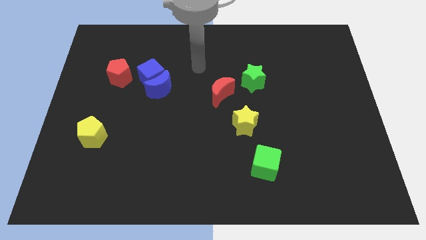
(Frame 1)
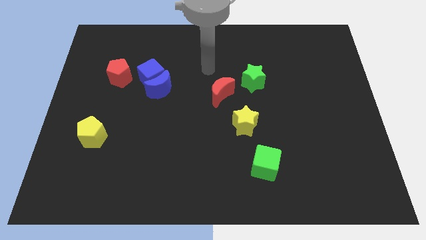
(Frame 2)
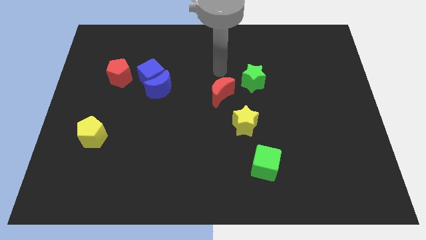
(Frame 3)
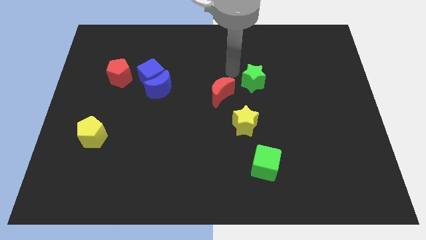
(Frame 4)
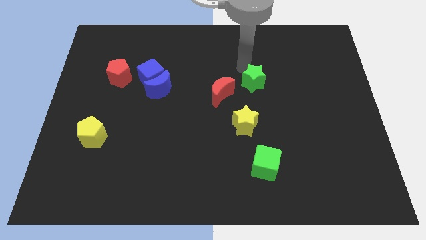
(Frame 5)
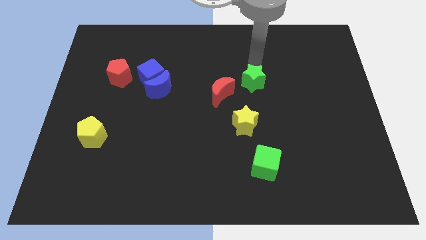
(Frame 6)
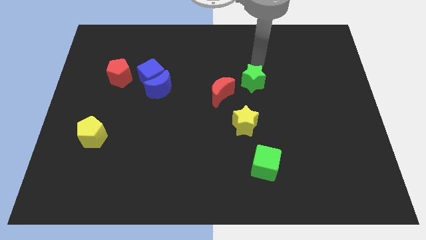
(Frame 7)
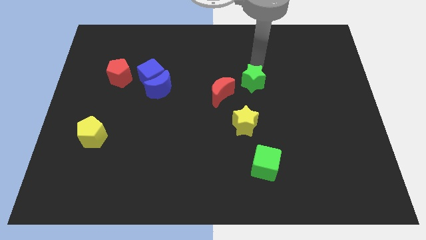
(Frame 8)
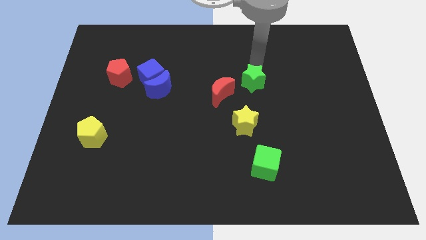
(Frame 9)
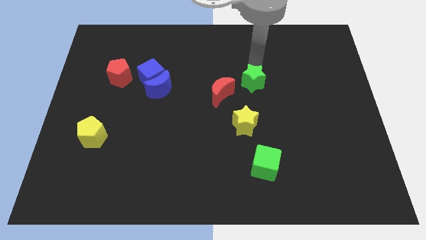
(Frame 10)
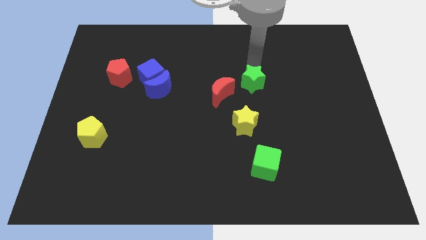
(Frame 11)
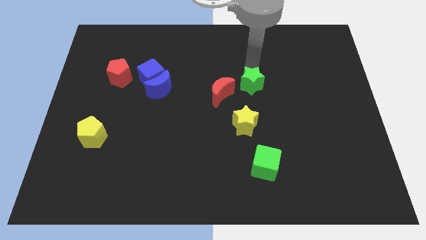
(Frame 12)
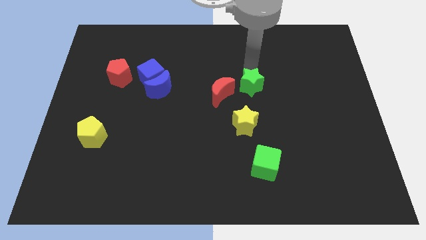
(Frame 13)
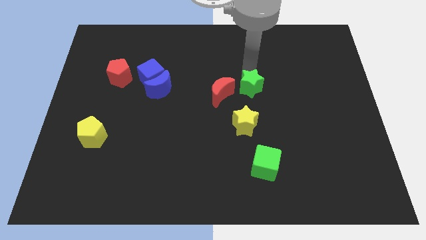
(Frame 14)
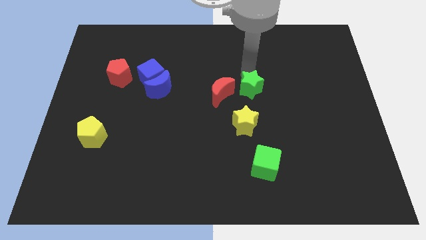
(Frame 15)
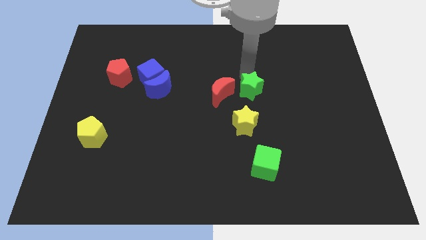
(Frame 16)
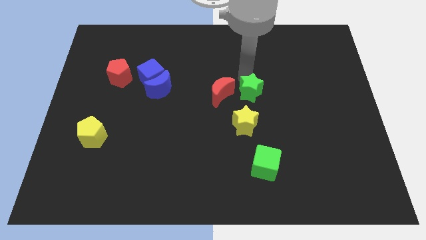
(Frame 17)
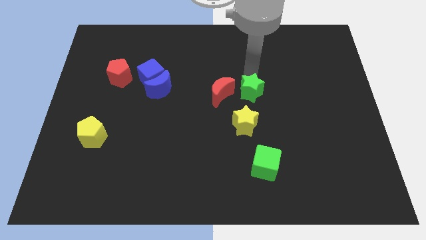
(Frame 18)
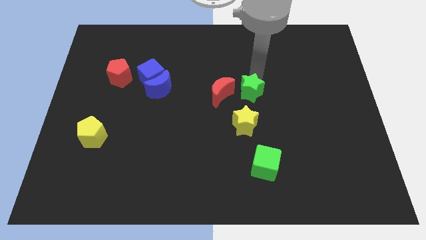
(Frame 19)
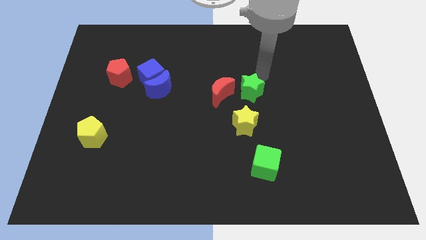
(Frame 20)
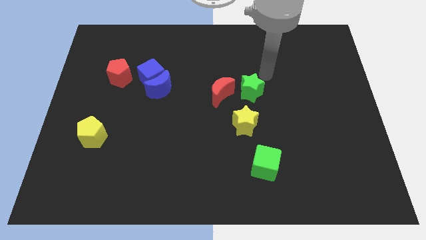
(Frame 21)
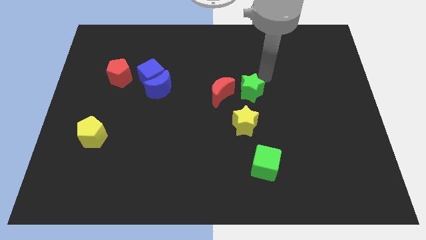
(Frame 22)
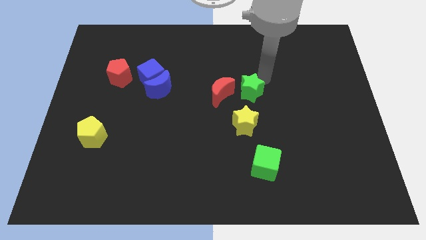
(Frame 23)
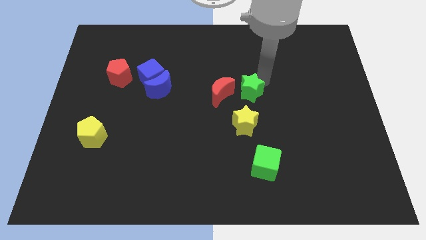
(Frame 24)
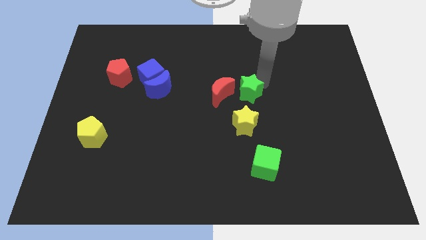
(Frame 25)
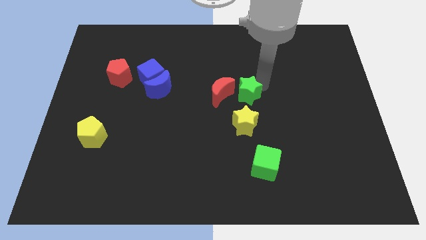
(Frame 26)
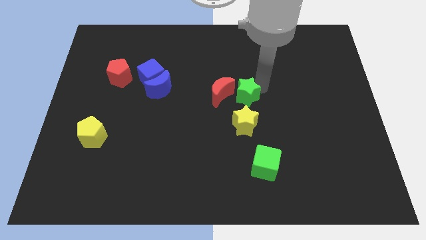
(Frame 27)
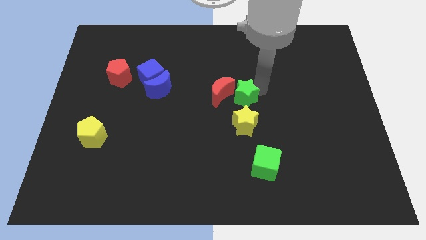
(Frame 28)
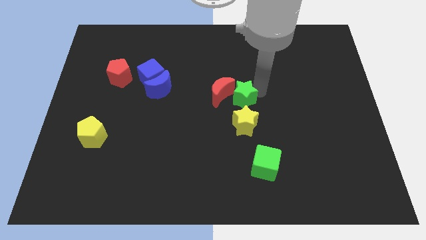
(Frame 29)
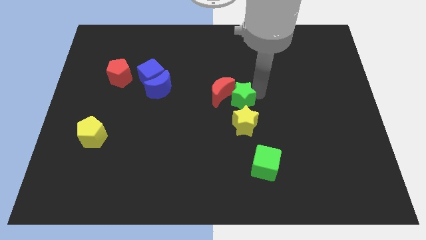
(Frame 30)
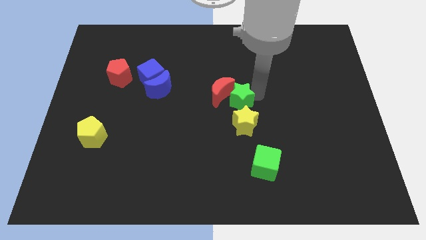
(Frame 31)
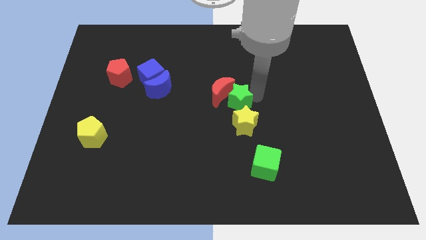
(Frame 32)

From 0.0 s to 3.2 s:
slightly push the green star down and then left

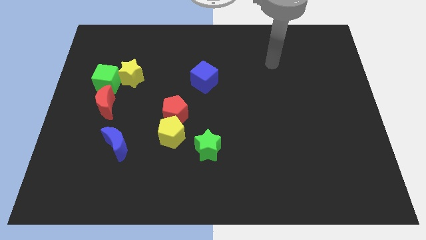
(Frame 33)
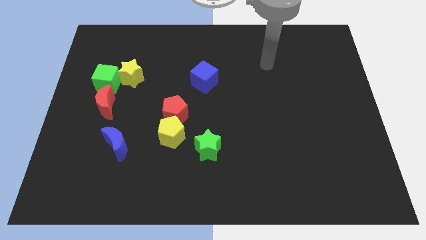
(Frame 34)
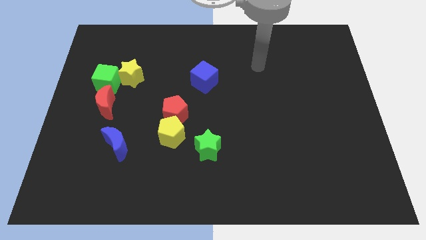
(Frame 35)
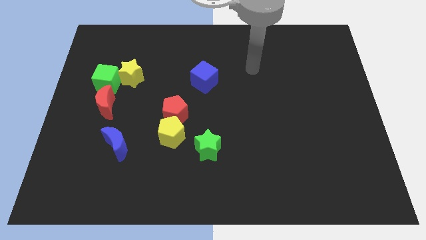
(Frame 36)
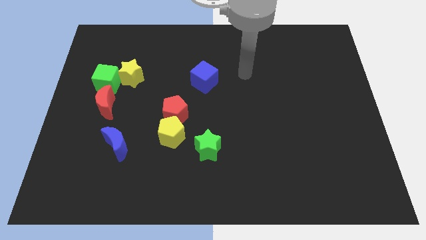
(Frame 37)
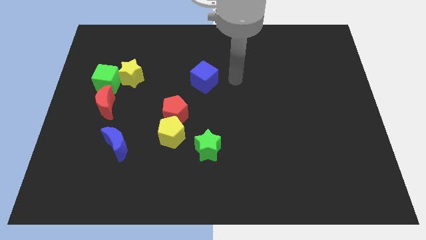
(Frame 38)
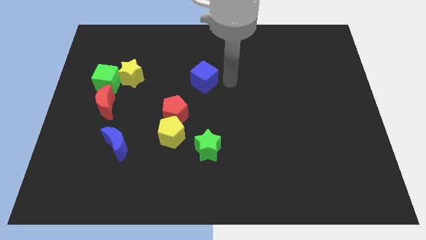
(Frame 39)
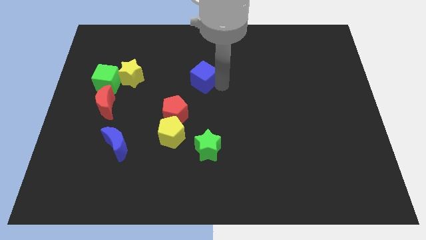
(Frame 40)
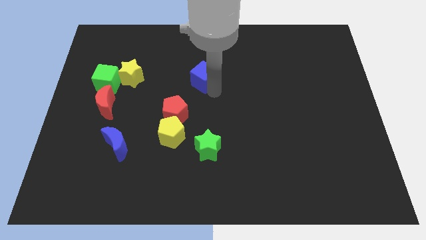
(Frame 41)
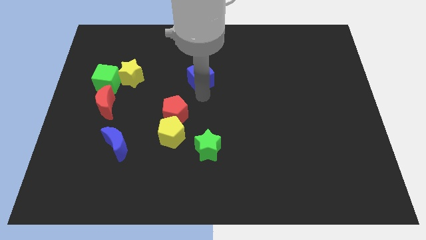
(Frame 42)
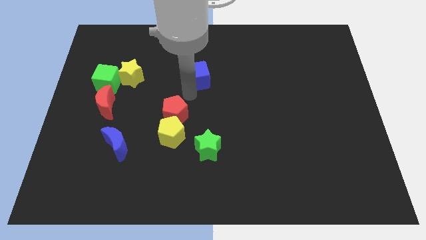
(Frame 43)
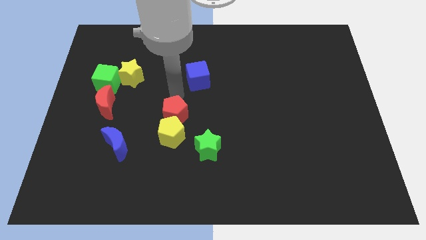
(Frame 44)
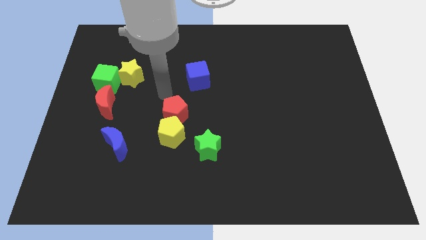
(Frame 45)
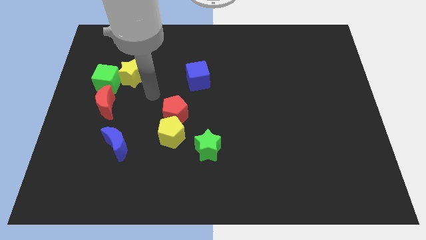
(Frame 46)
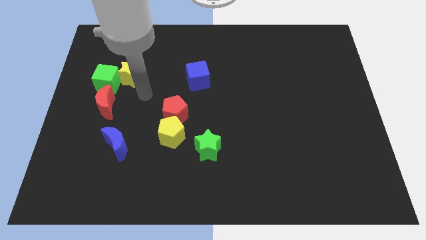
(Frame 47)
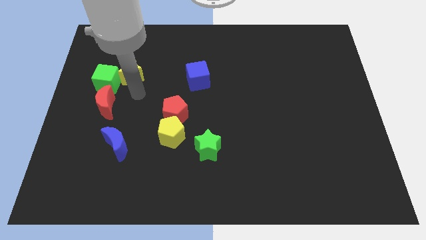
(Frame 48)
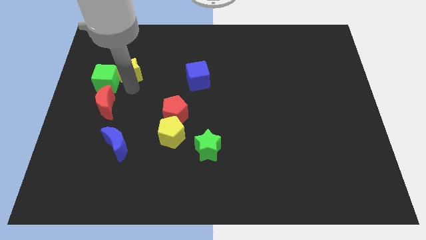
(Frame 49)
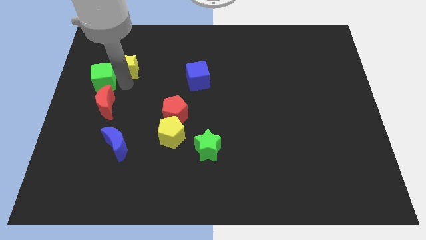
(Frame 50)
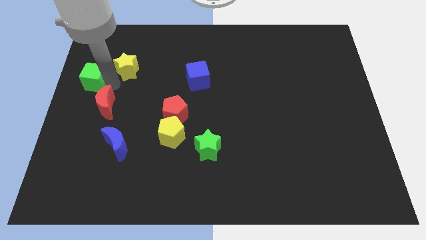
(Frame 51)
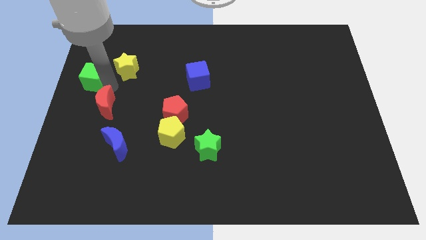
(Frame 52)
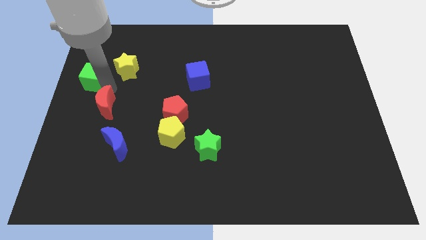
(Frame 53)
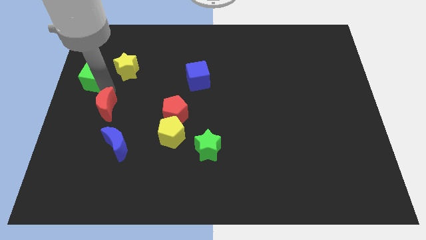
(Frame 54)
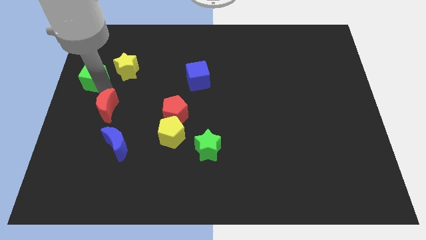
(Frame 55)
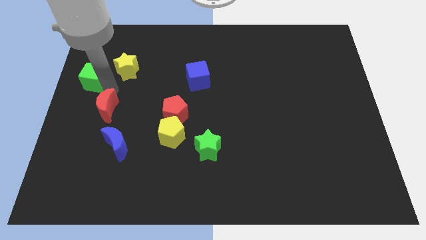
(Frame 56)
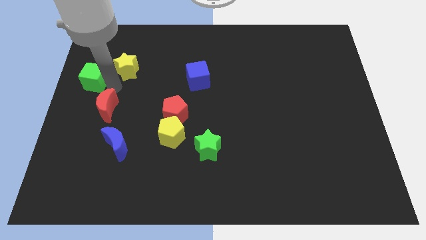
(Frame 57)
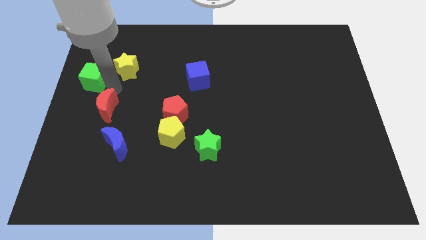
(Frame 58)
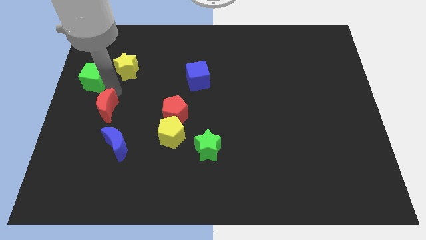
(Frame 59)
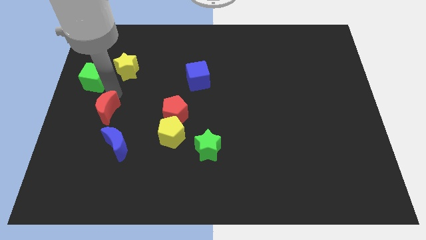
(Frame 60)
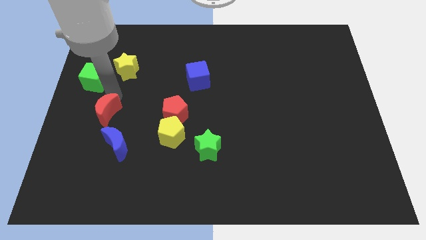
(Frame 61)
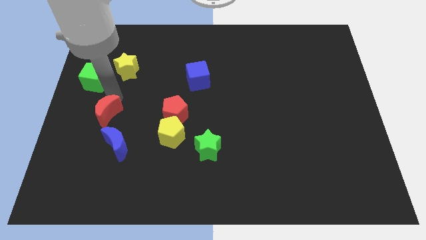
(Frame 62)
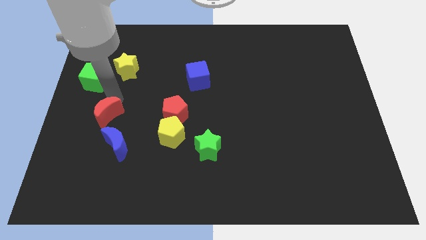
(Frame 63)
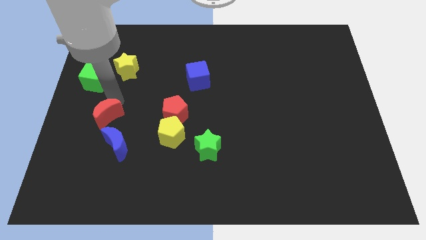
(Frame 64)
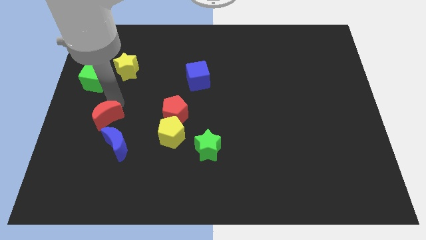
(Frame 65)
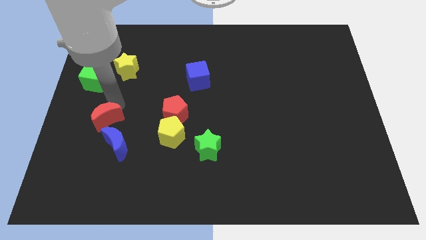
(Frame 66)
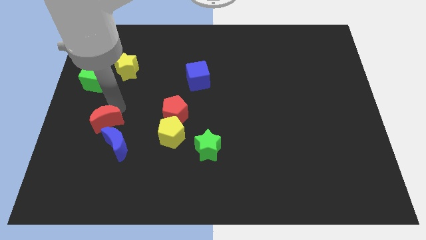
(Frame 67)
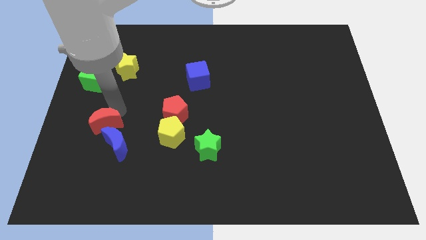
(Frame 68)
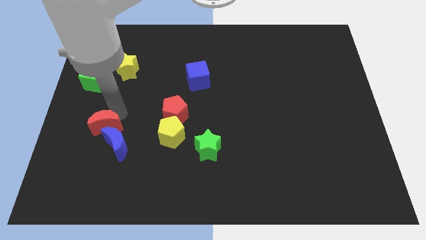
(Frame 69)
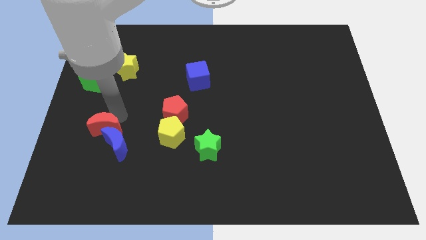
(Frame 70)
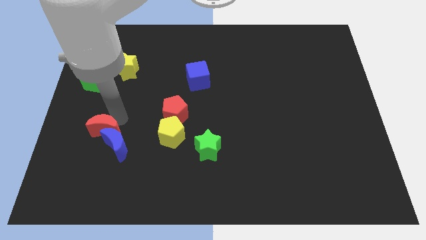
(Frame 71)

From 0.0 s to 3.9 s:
slightly move the red moon down

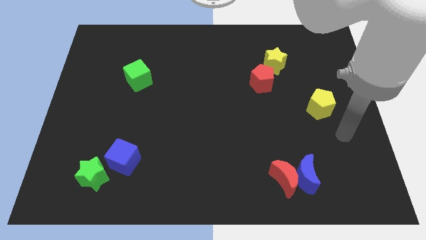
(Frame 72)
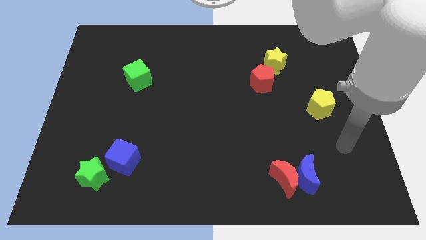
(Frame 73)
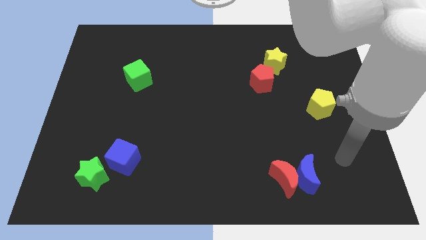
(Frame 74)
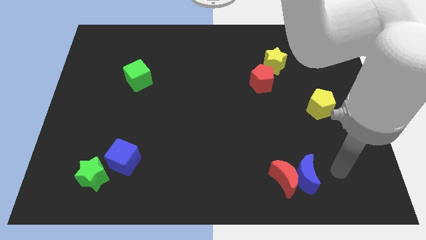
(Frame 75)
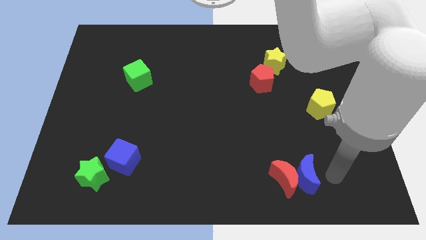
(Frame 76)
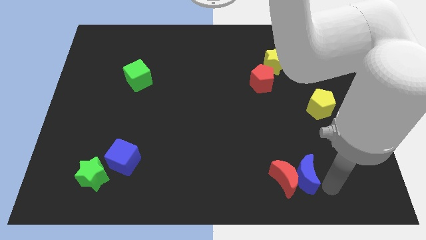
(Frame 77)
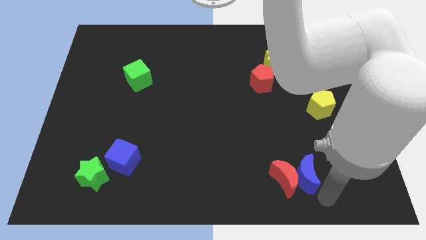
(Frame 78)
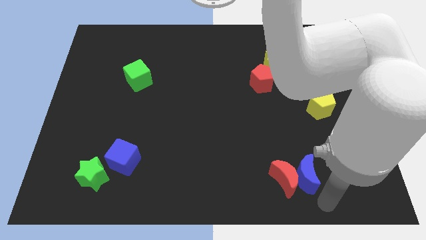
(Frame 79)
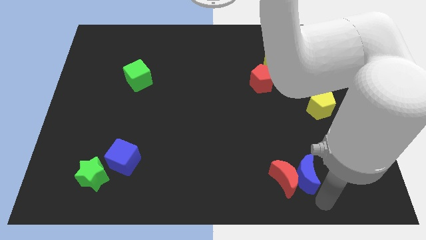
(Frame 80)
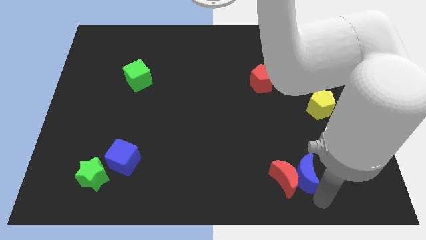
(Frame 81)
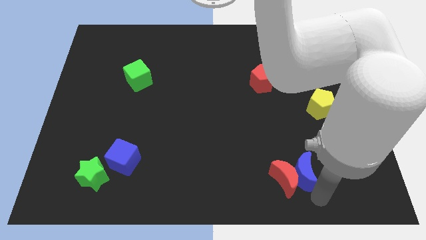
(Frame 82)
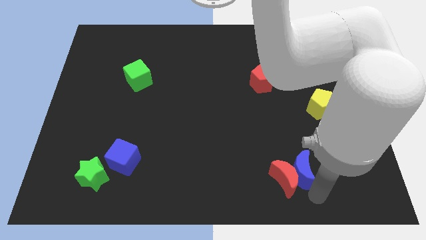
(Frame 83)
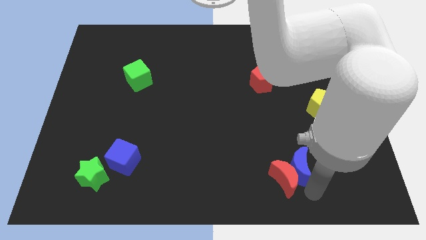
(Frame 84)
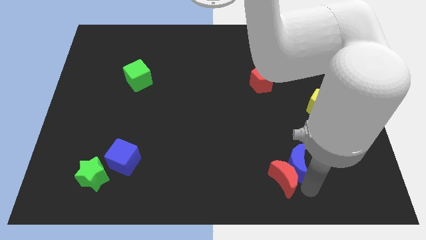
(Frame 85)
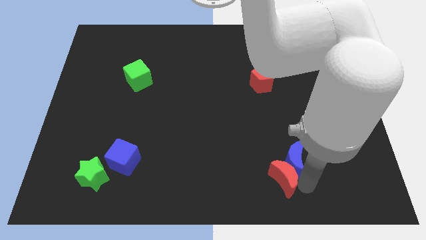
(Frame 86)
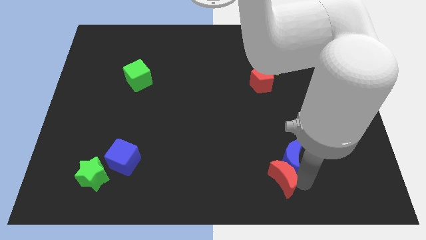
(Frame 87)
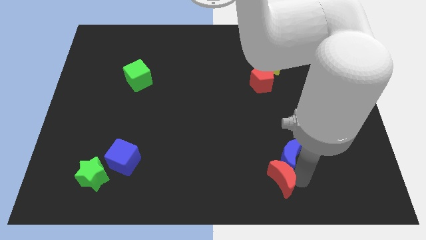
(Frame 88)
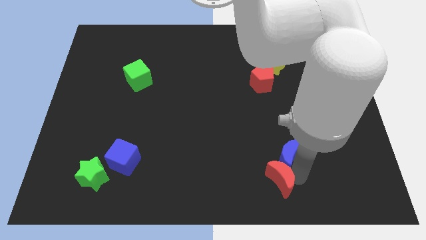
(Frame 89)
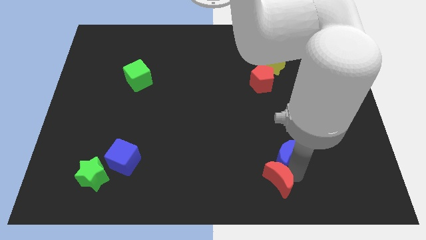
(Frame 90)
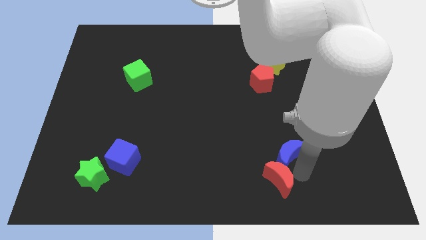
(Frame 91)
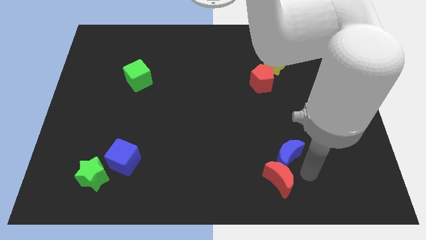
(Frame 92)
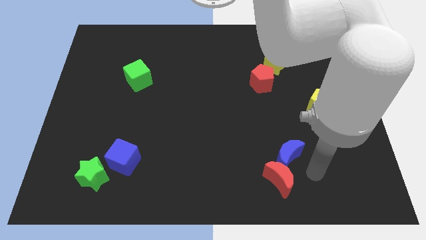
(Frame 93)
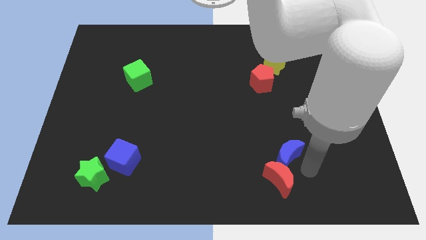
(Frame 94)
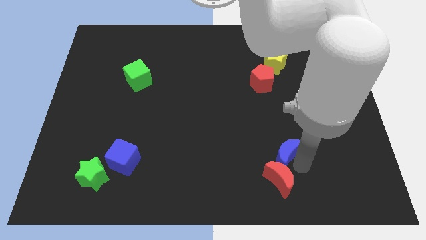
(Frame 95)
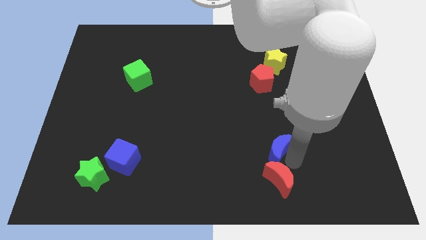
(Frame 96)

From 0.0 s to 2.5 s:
move the blue moon a little up and left
